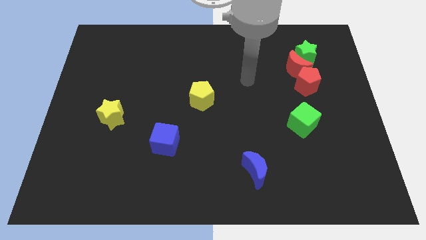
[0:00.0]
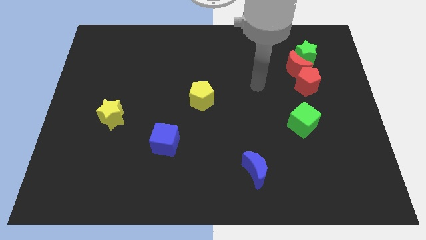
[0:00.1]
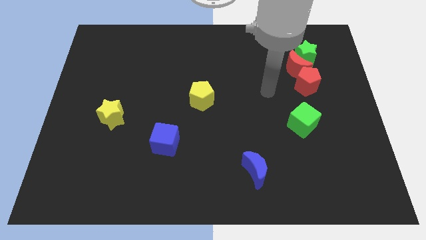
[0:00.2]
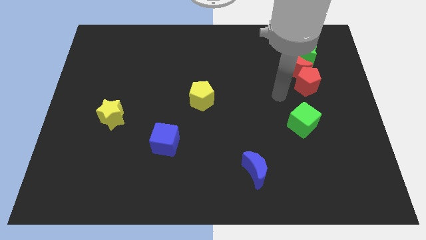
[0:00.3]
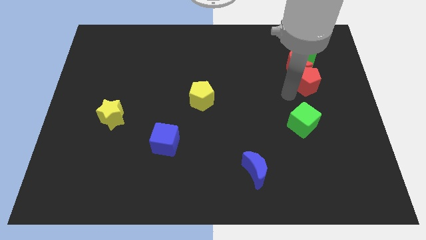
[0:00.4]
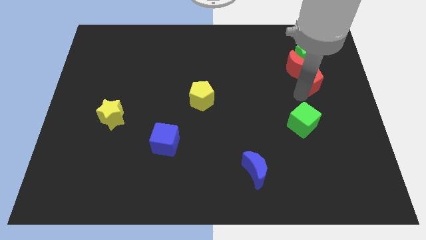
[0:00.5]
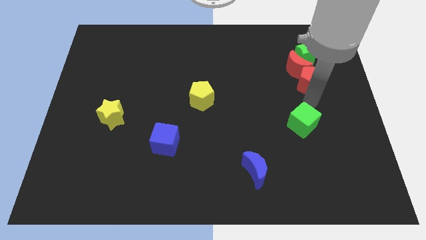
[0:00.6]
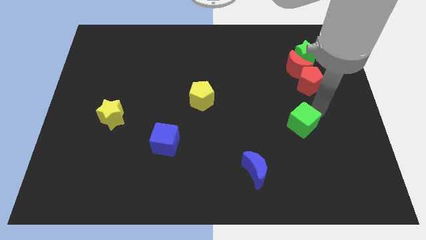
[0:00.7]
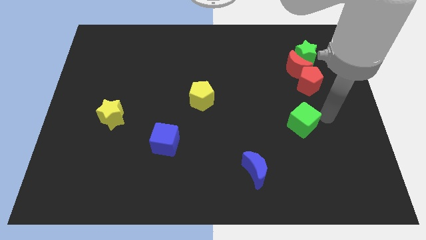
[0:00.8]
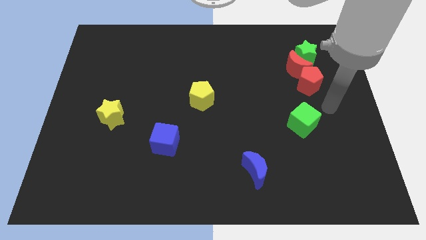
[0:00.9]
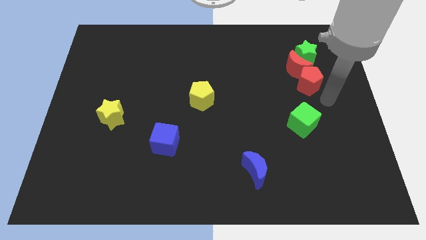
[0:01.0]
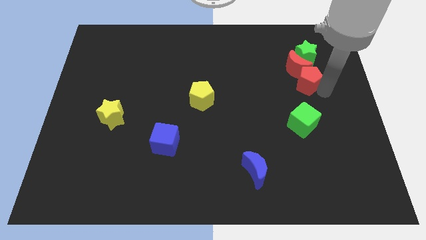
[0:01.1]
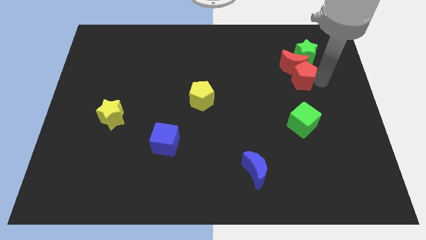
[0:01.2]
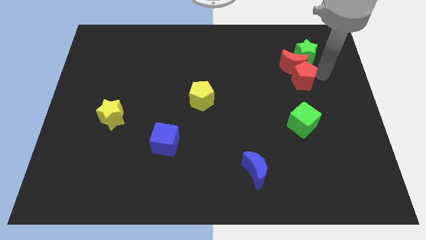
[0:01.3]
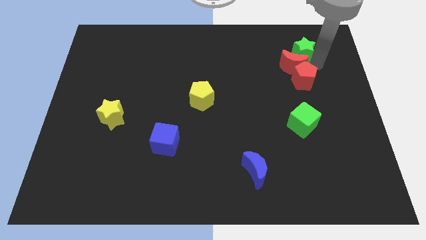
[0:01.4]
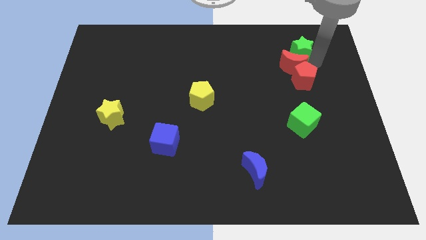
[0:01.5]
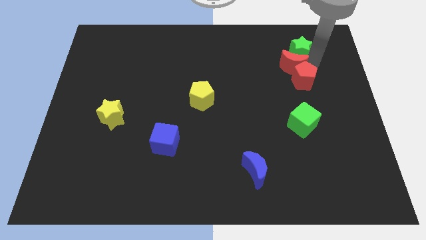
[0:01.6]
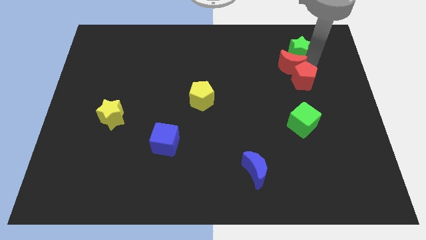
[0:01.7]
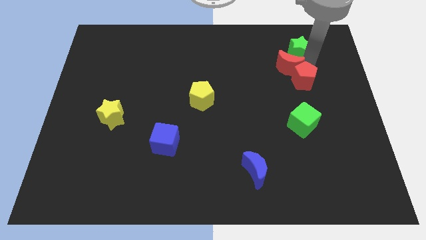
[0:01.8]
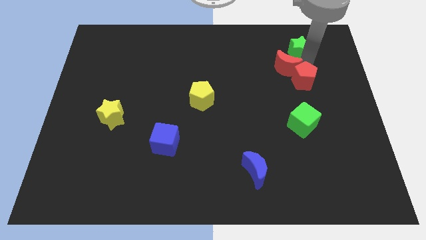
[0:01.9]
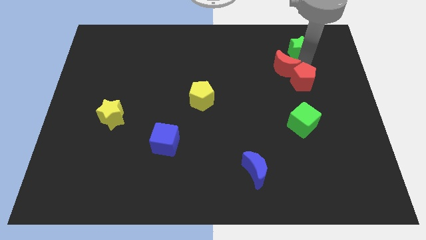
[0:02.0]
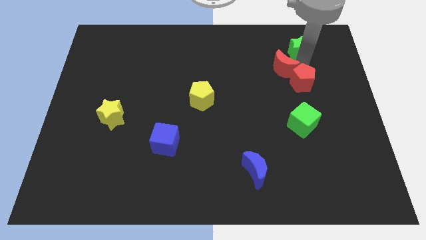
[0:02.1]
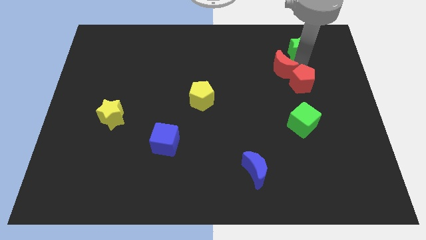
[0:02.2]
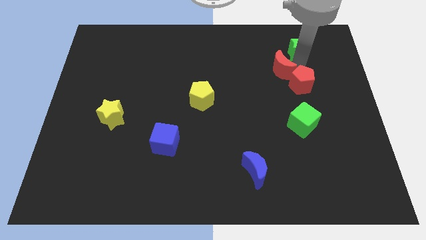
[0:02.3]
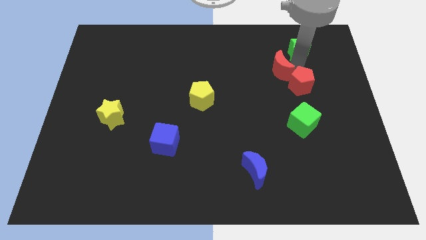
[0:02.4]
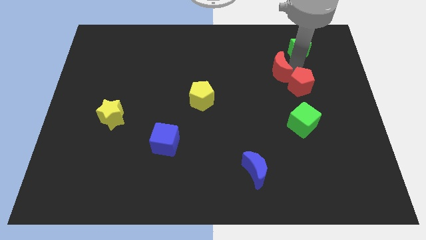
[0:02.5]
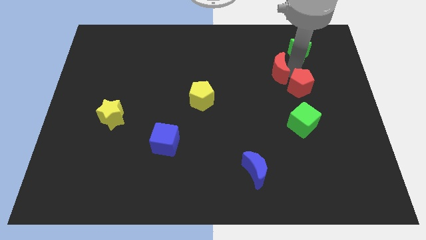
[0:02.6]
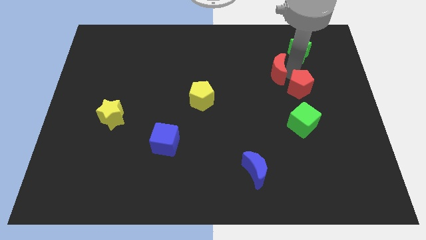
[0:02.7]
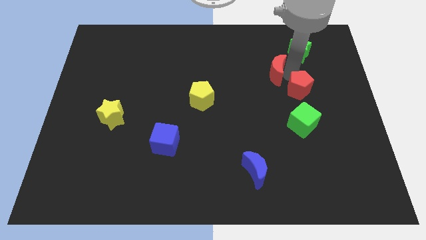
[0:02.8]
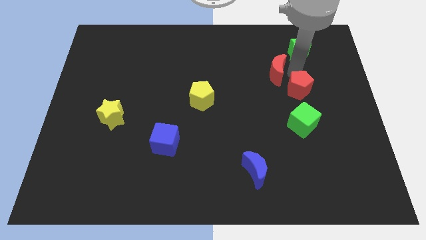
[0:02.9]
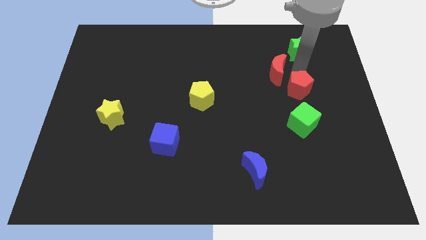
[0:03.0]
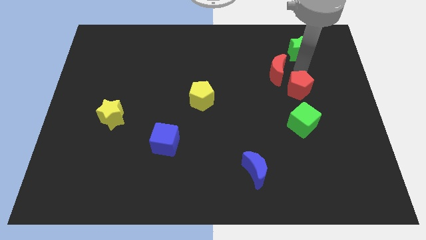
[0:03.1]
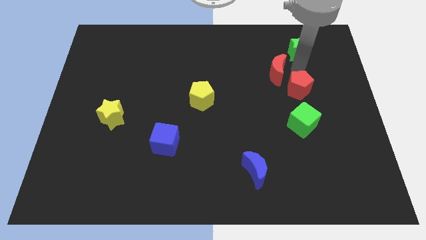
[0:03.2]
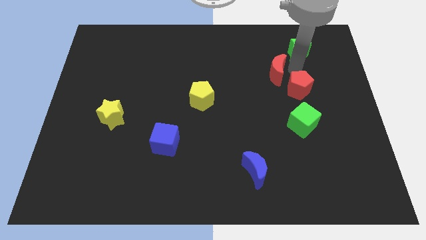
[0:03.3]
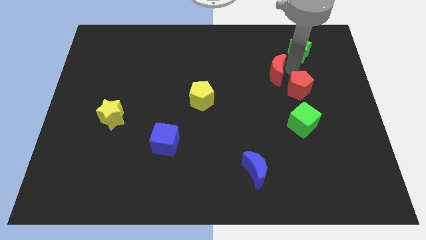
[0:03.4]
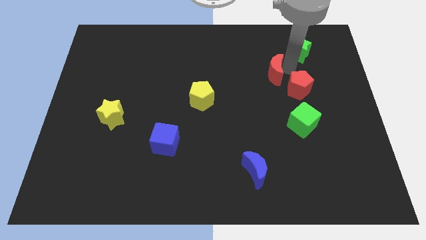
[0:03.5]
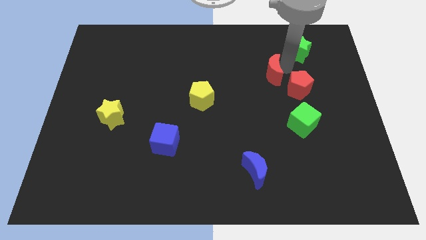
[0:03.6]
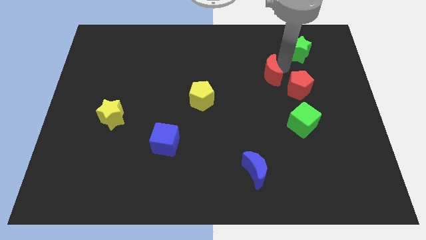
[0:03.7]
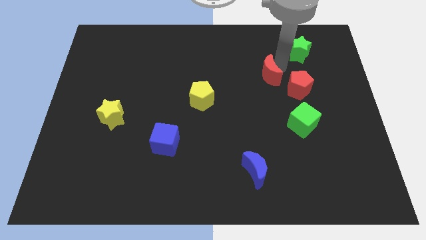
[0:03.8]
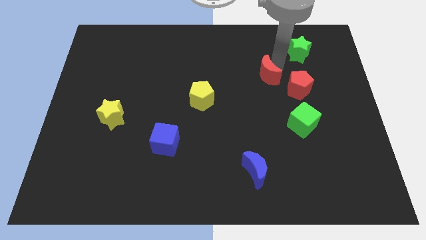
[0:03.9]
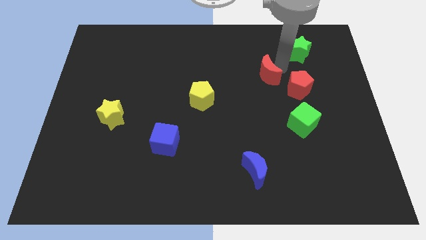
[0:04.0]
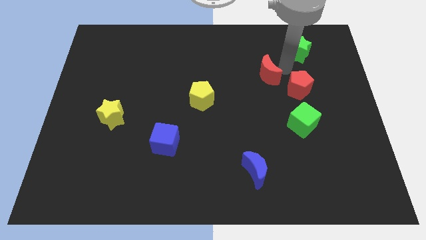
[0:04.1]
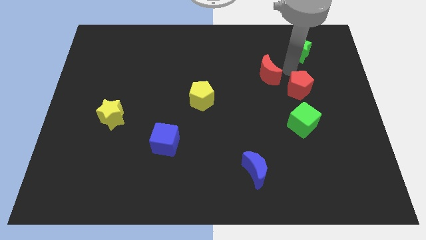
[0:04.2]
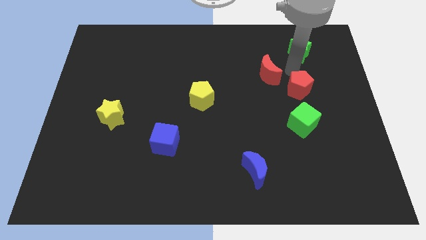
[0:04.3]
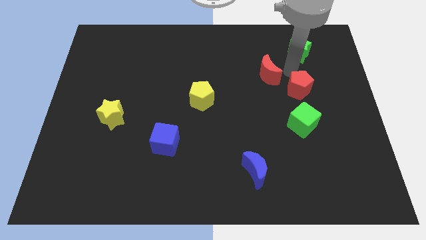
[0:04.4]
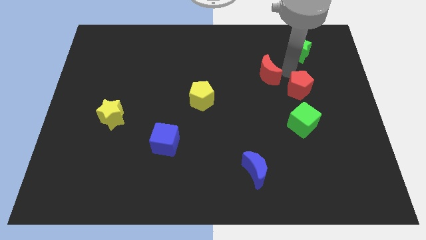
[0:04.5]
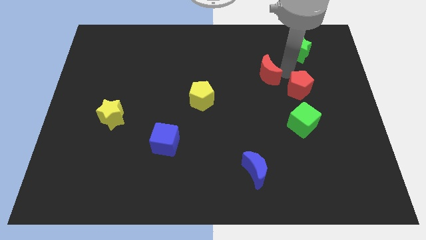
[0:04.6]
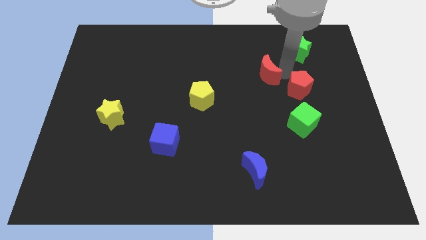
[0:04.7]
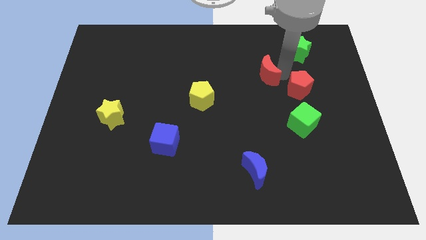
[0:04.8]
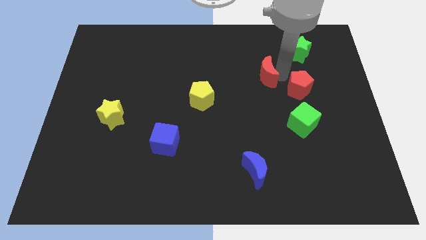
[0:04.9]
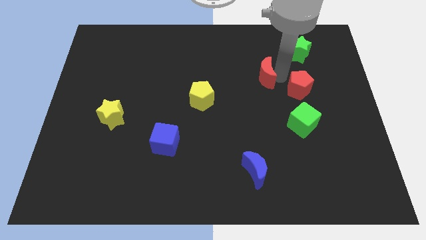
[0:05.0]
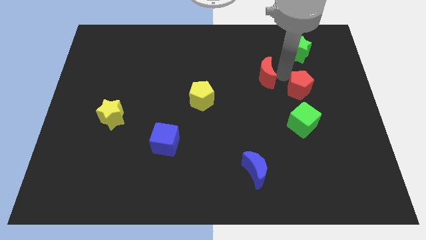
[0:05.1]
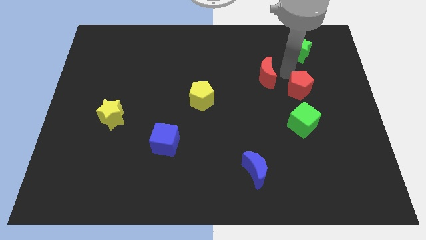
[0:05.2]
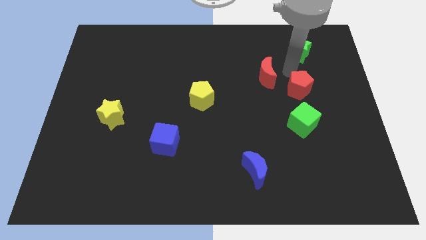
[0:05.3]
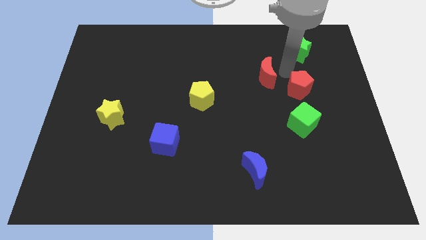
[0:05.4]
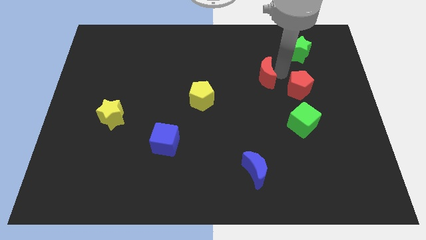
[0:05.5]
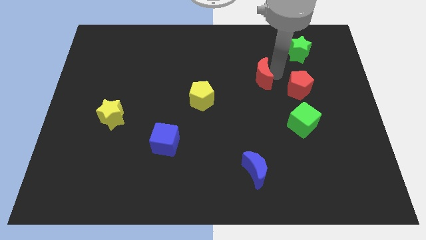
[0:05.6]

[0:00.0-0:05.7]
move the red moon away from the green star and red pentagon

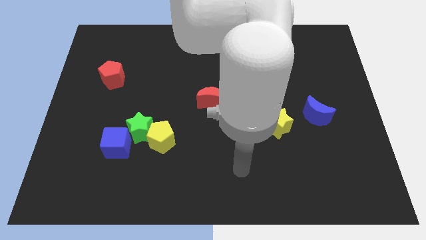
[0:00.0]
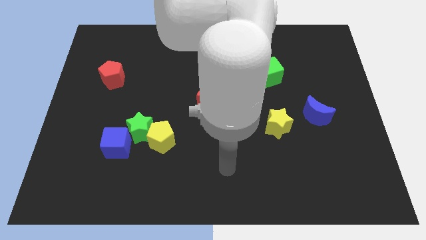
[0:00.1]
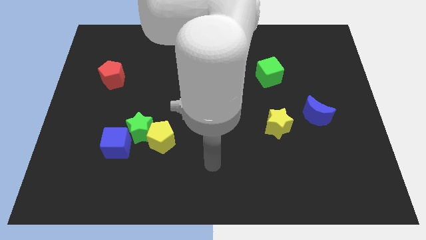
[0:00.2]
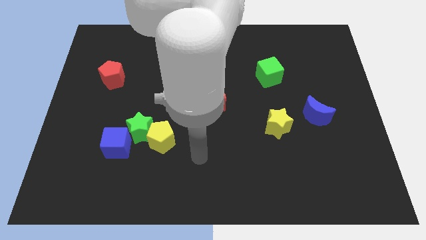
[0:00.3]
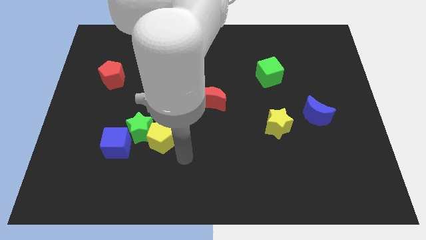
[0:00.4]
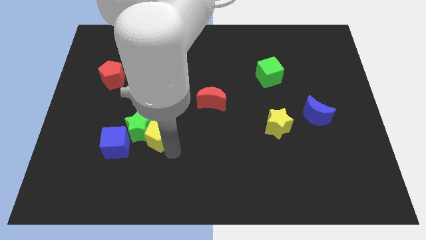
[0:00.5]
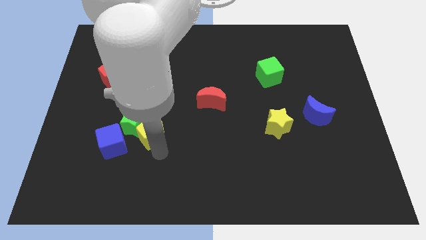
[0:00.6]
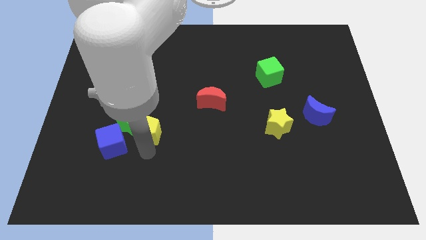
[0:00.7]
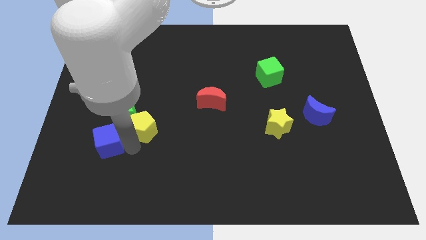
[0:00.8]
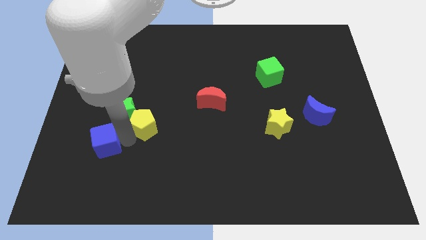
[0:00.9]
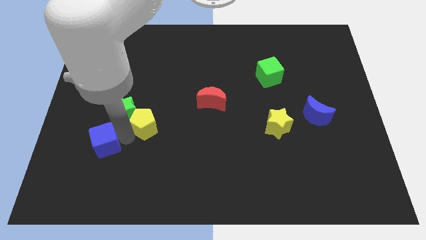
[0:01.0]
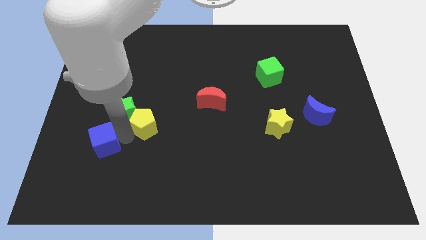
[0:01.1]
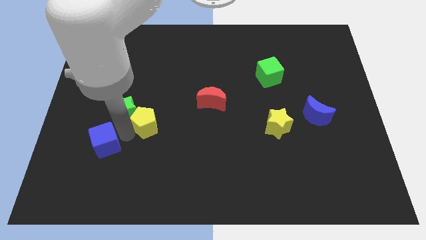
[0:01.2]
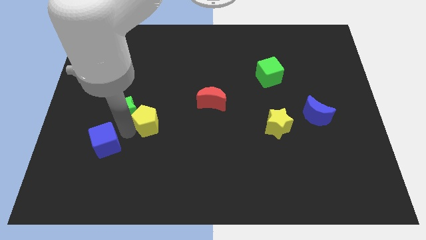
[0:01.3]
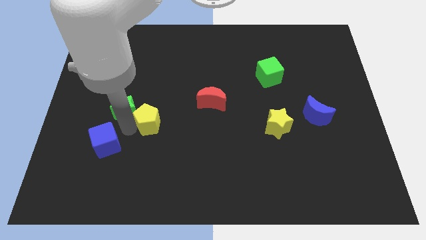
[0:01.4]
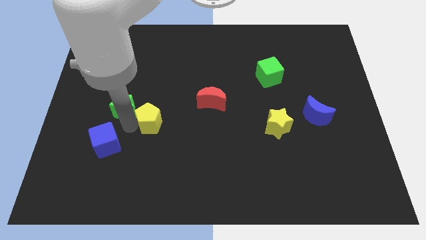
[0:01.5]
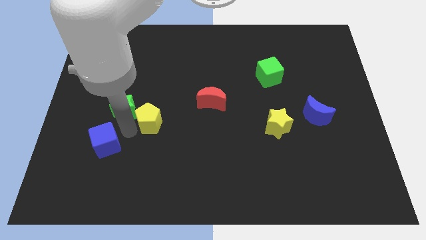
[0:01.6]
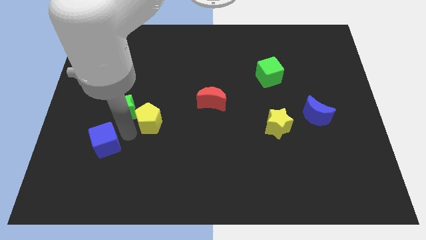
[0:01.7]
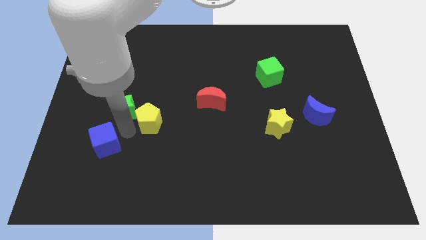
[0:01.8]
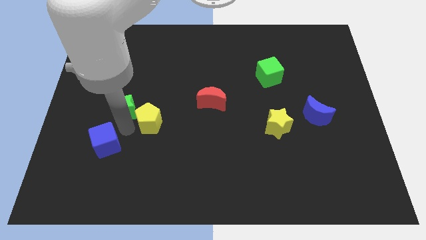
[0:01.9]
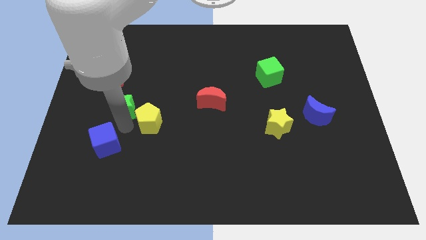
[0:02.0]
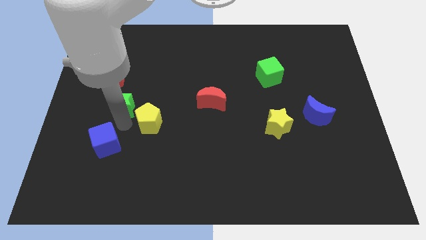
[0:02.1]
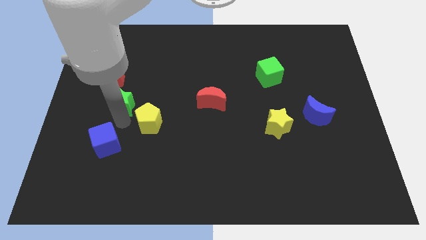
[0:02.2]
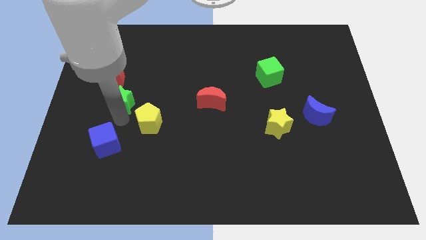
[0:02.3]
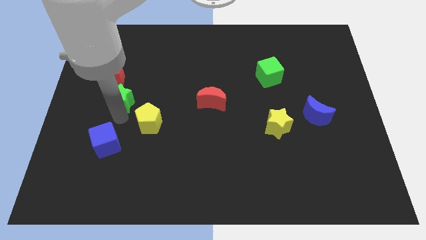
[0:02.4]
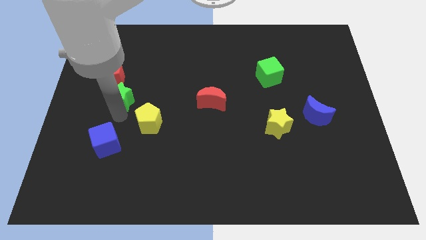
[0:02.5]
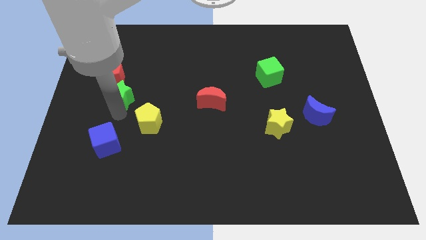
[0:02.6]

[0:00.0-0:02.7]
separate the green star from the yellow pentagon and blue cube

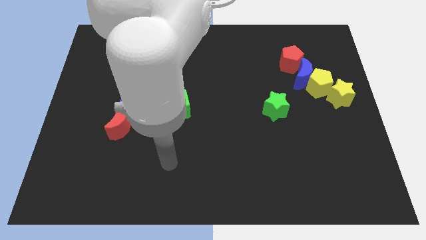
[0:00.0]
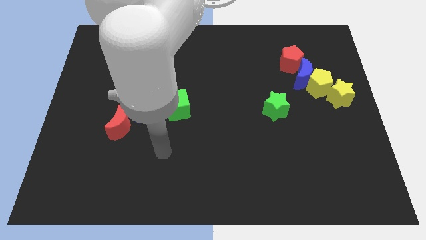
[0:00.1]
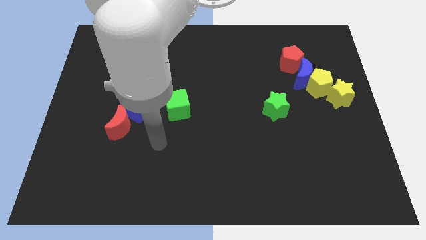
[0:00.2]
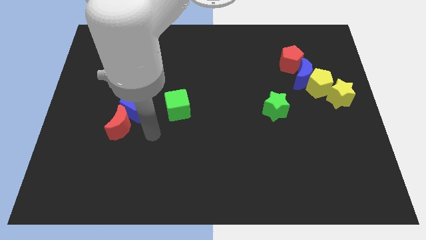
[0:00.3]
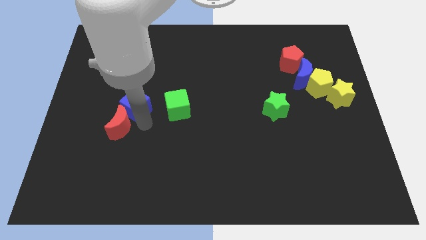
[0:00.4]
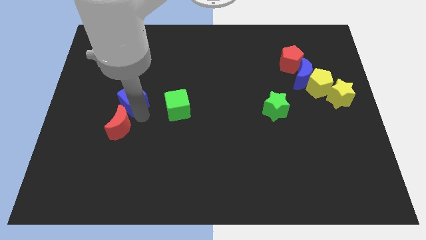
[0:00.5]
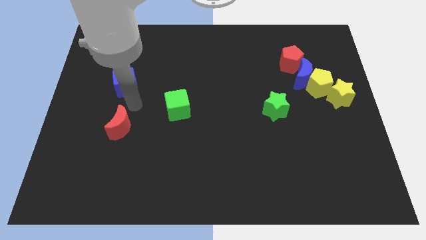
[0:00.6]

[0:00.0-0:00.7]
separate the red moon from the blue cube

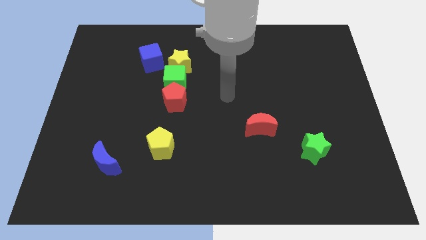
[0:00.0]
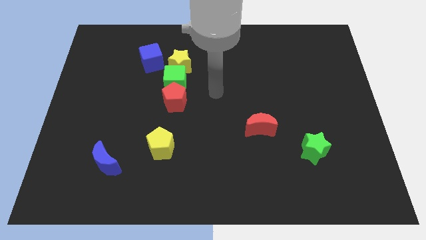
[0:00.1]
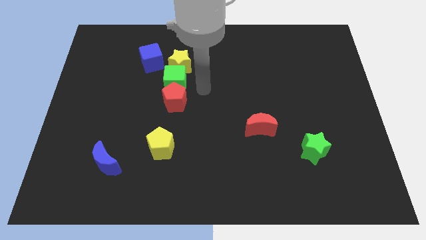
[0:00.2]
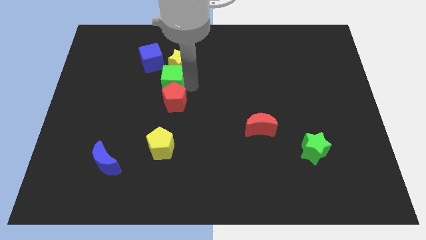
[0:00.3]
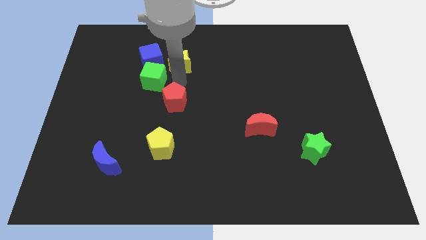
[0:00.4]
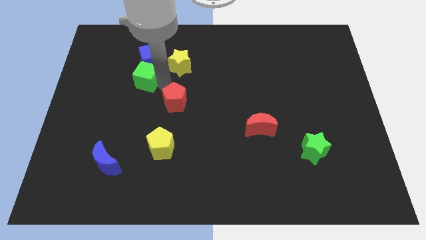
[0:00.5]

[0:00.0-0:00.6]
separate the red pentagon from the green cube
